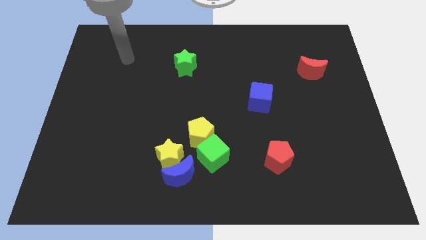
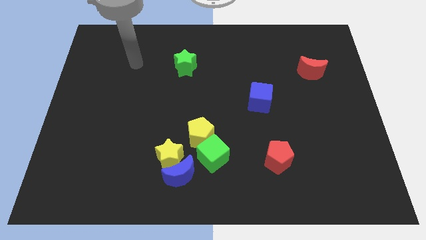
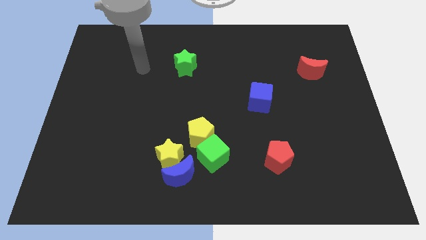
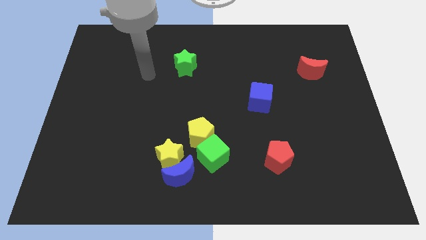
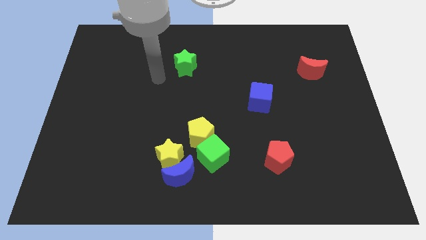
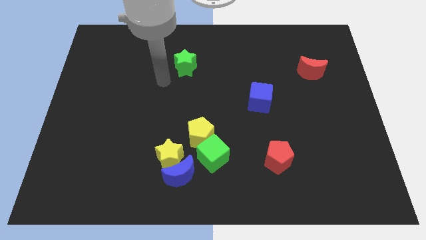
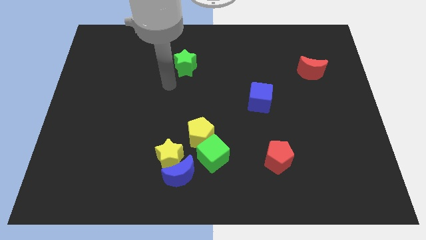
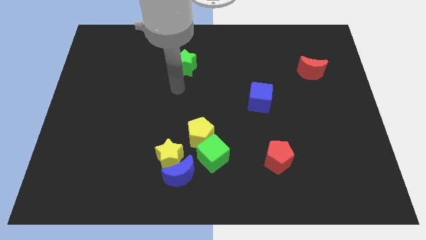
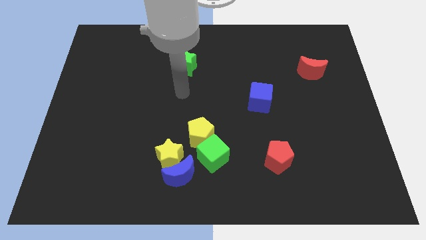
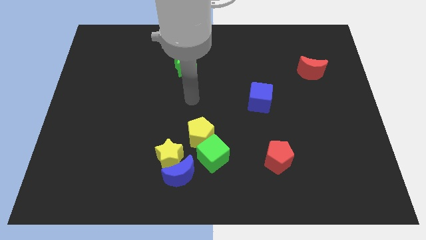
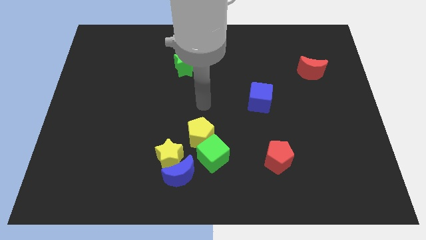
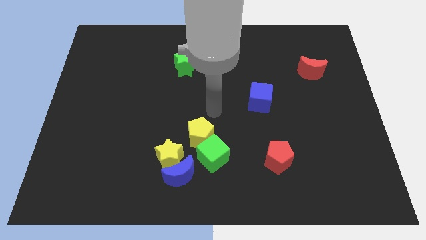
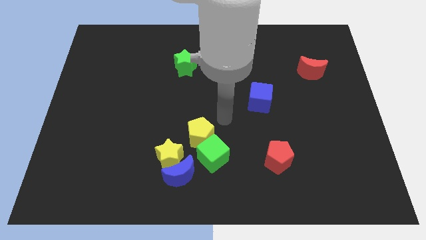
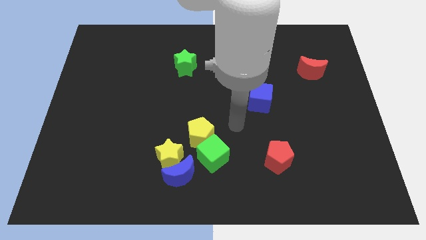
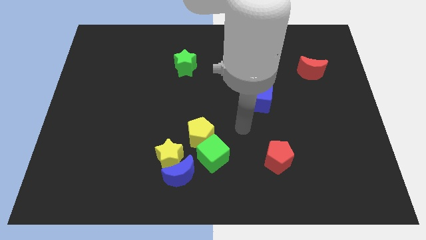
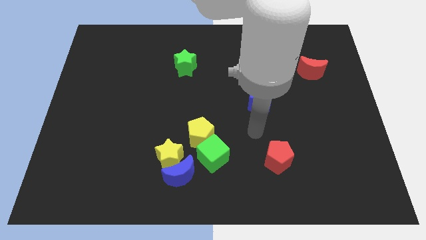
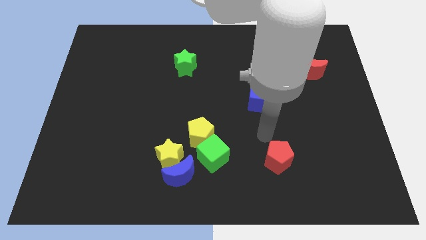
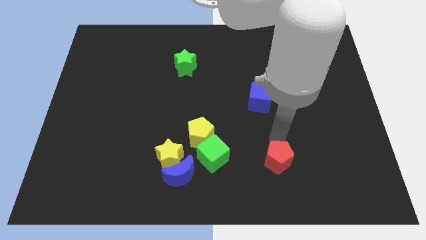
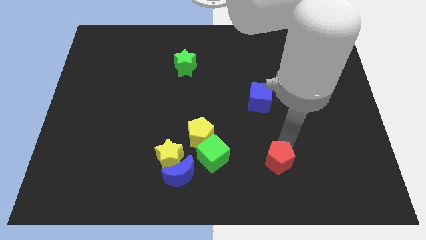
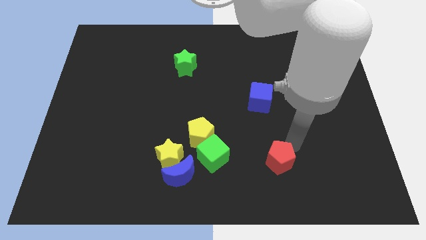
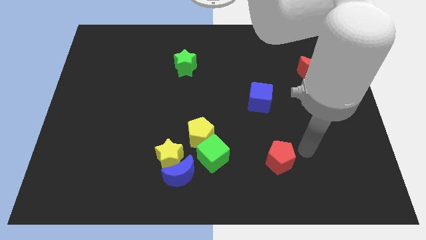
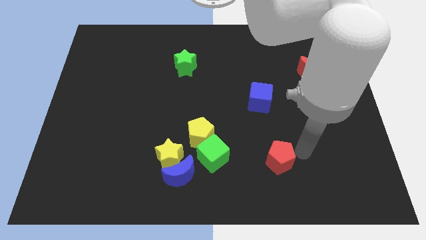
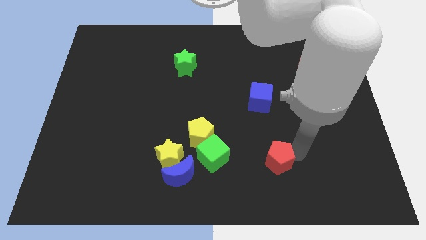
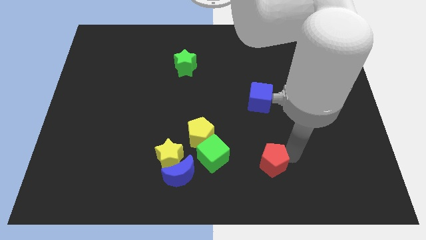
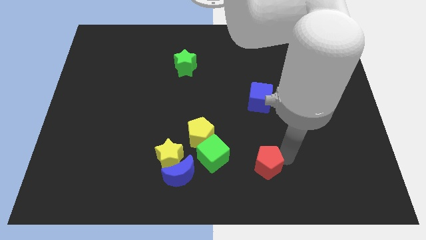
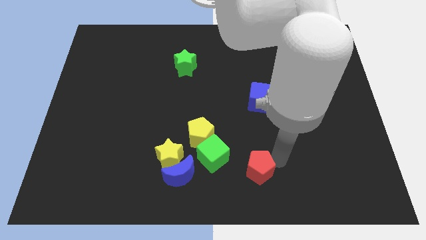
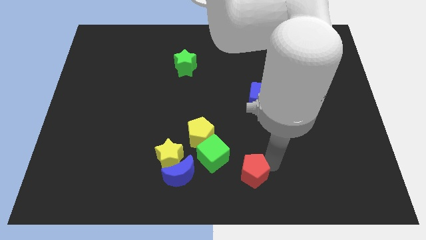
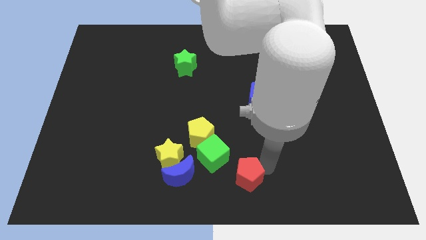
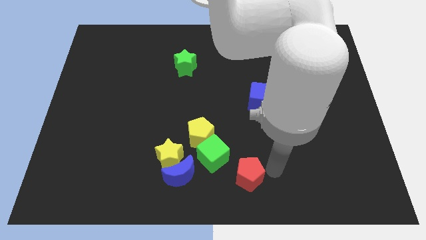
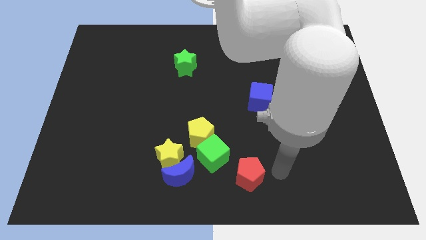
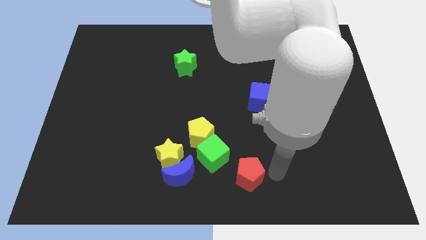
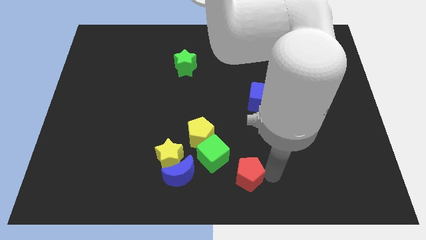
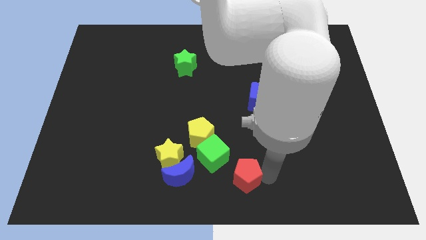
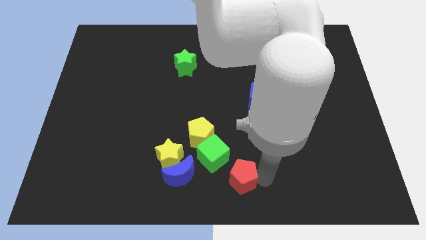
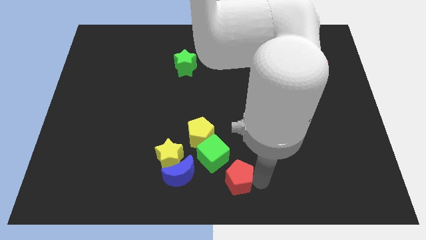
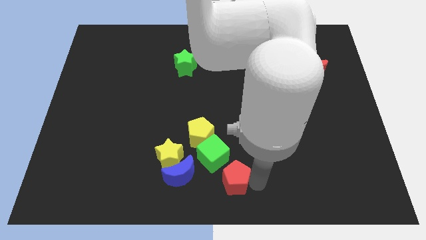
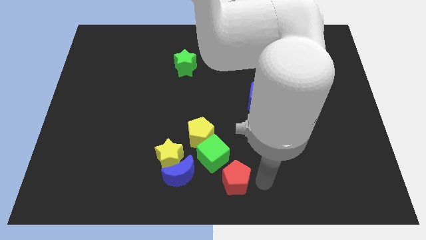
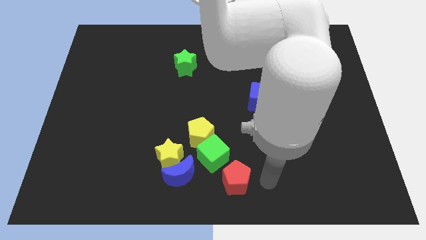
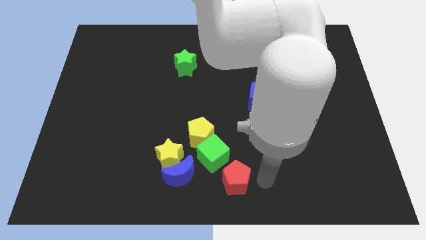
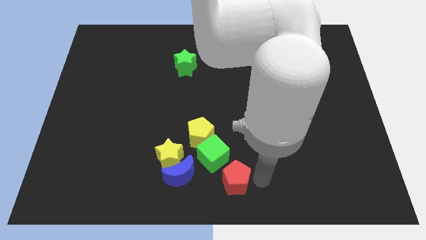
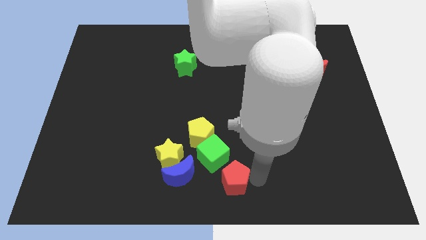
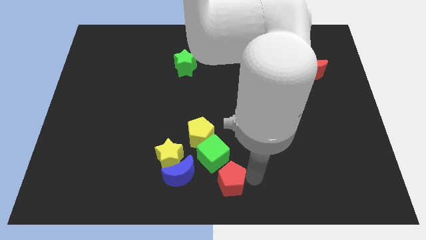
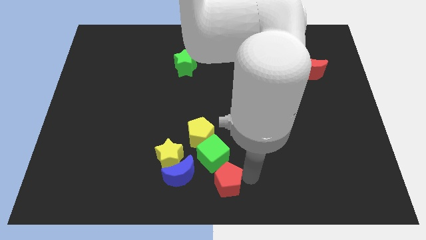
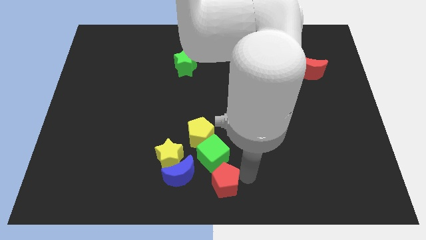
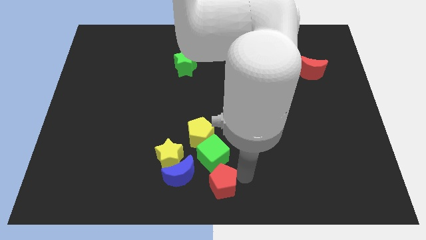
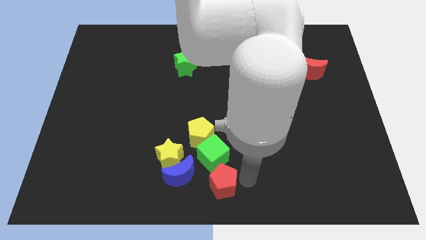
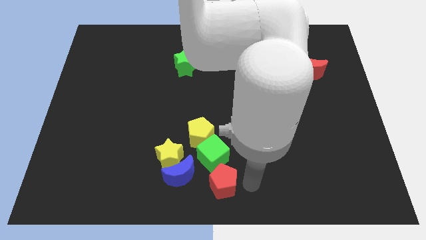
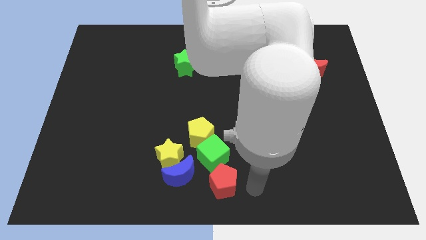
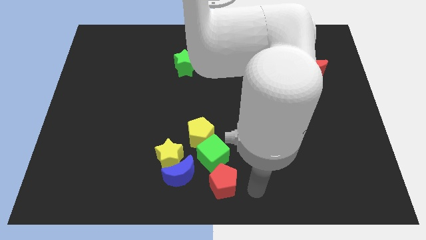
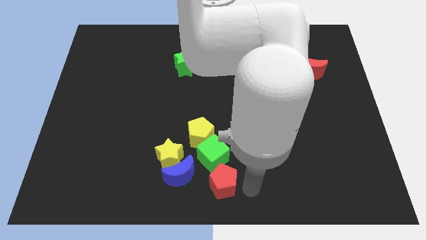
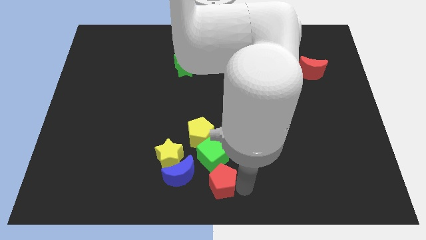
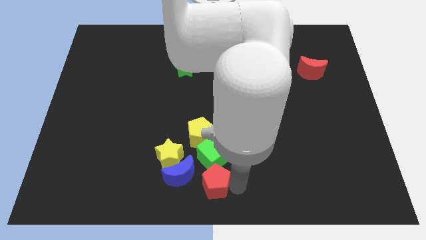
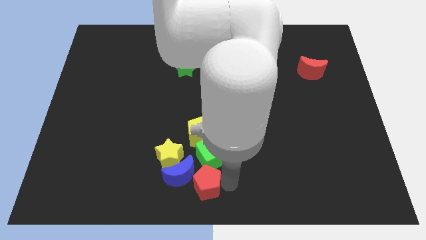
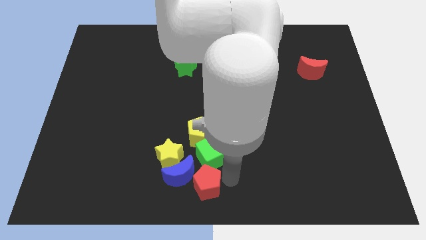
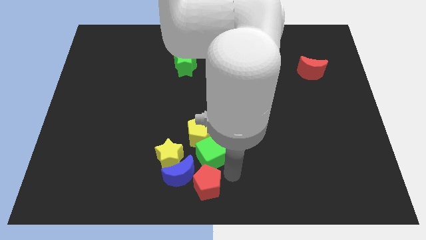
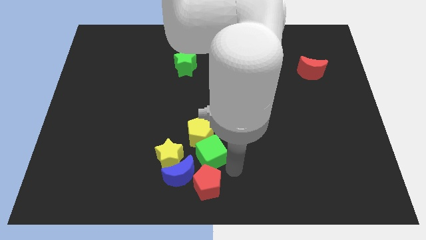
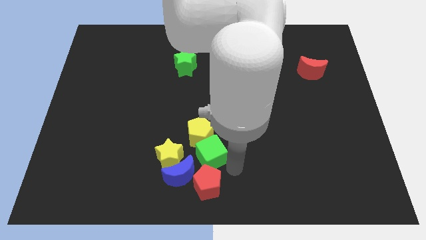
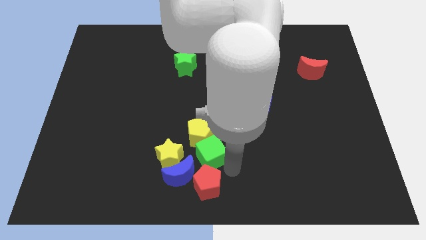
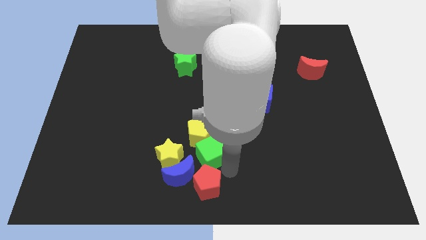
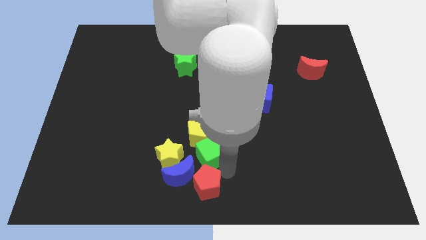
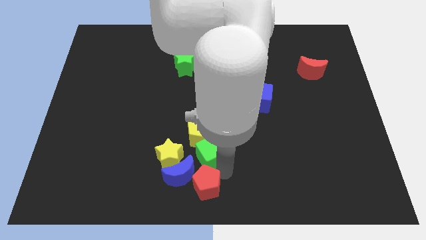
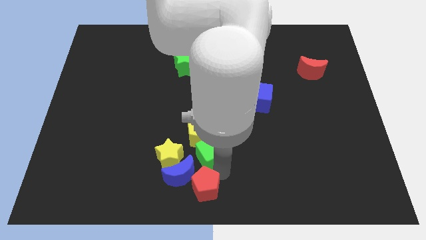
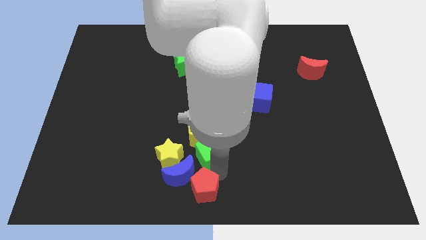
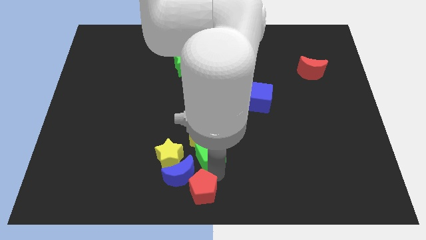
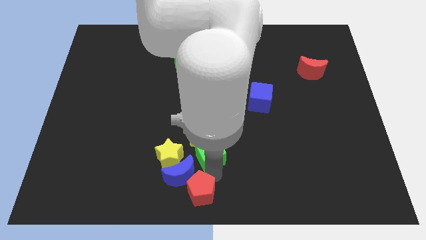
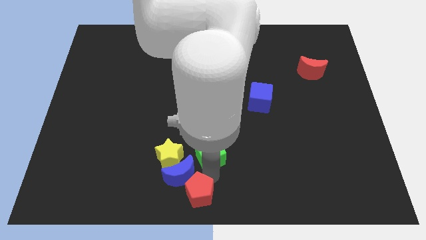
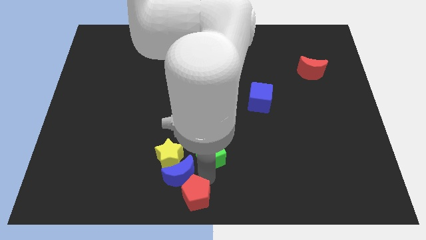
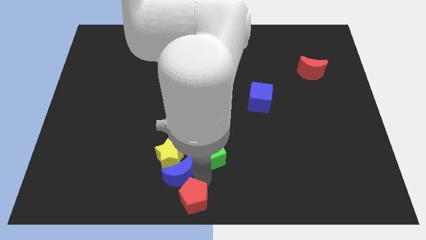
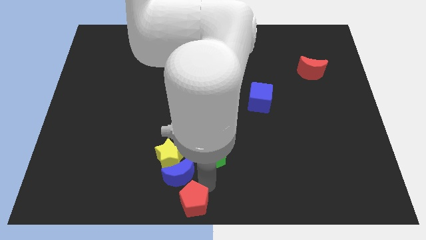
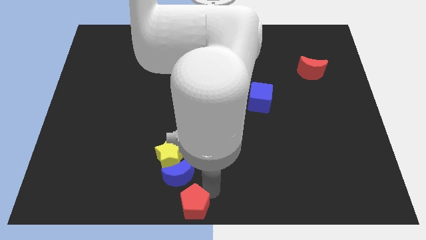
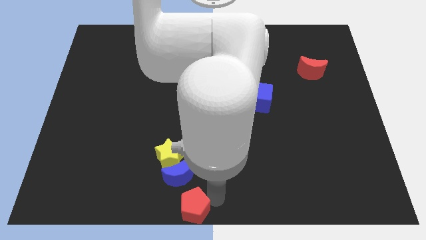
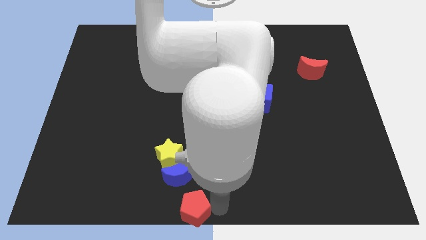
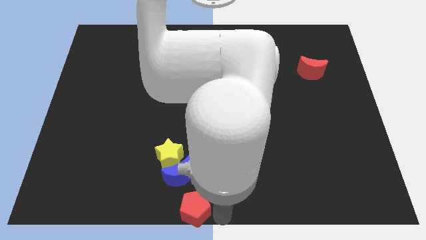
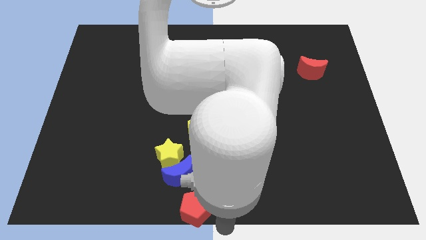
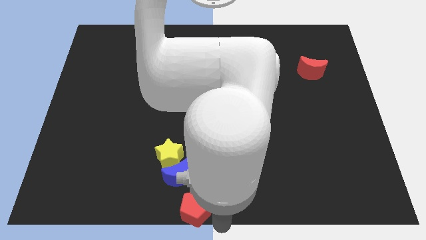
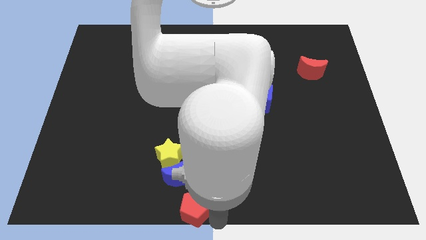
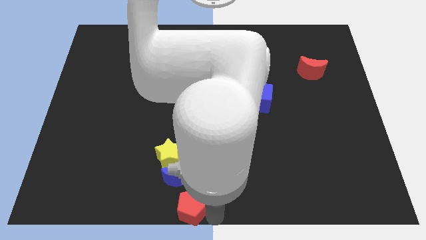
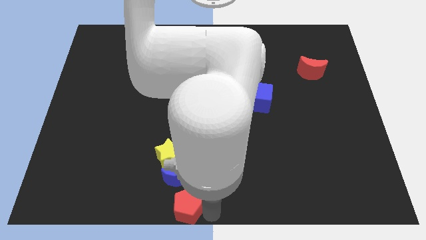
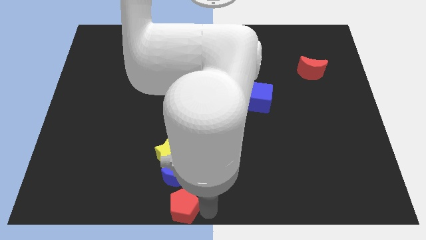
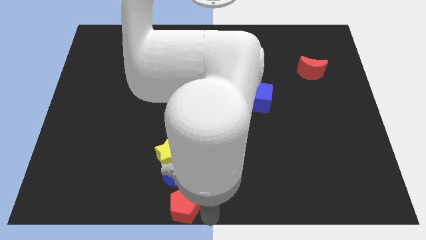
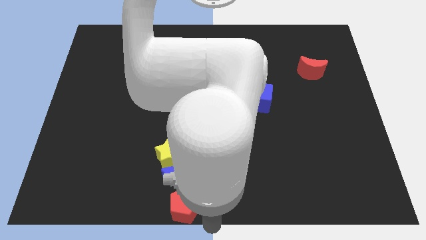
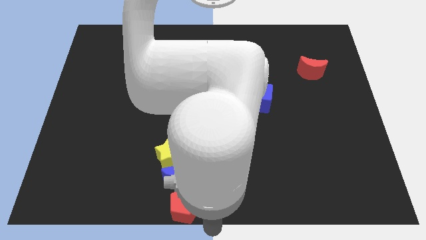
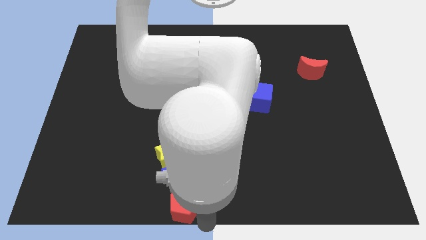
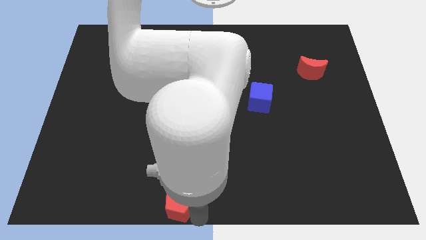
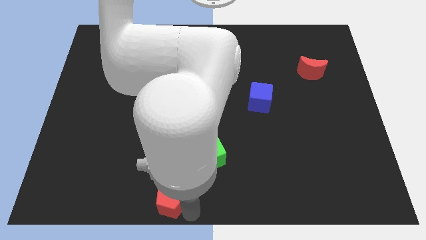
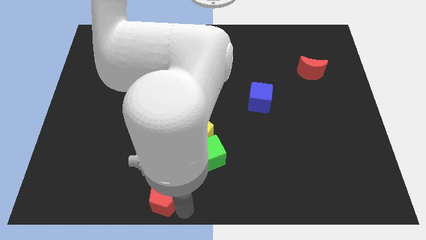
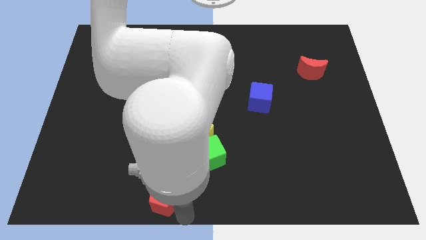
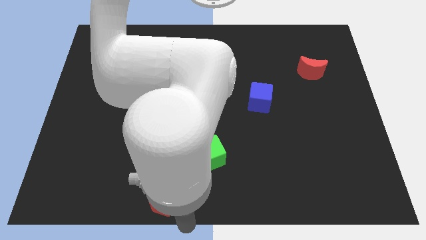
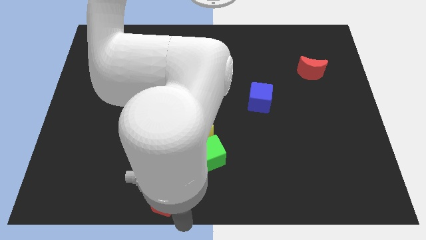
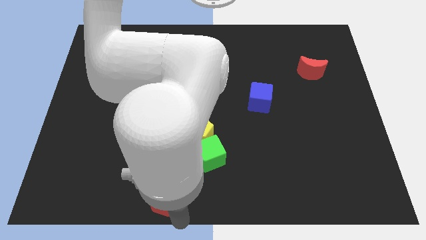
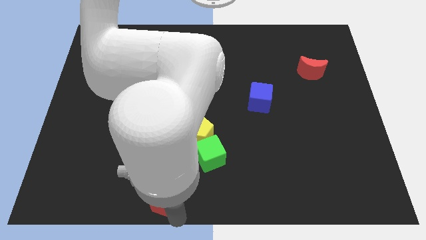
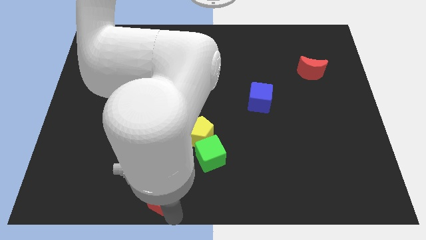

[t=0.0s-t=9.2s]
slide the red pentagon left
